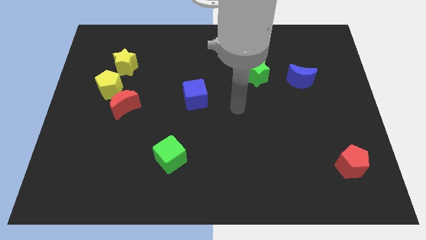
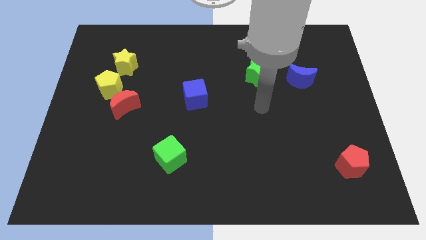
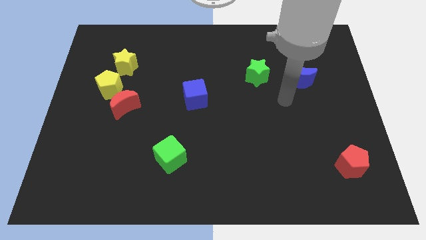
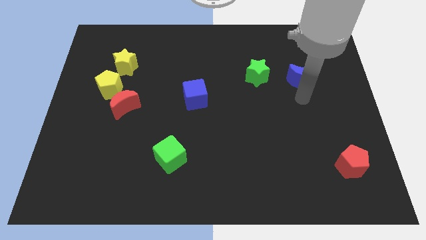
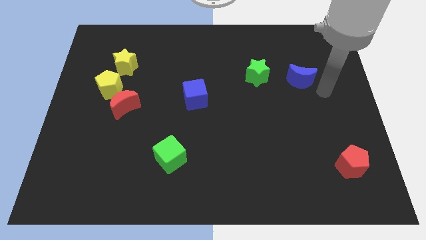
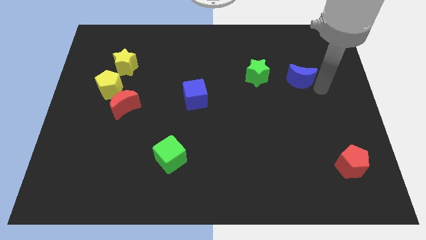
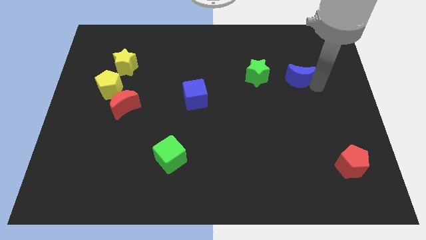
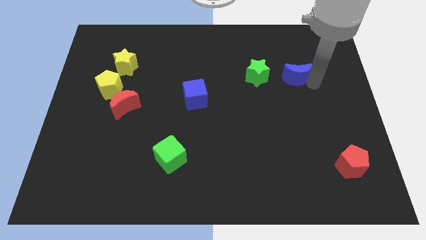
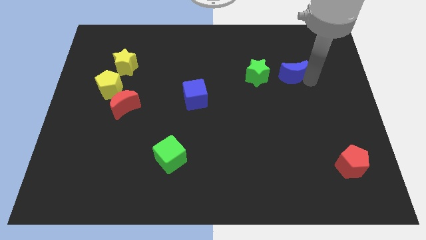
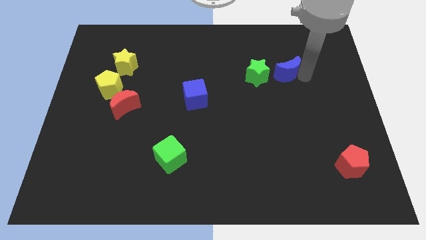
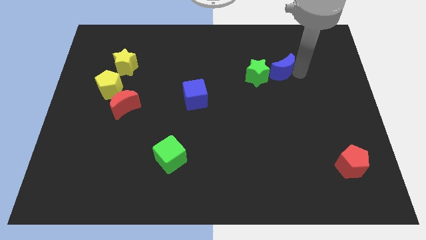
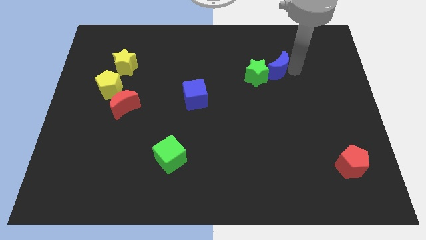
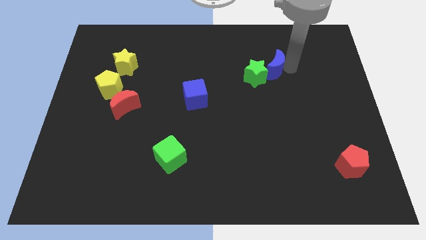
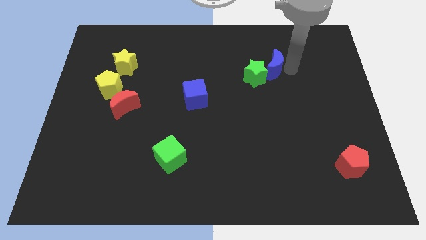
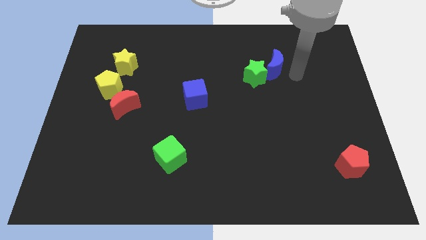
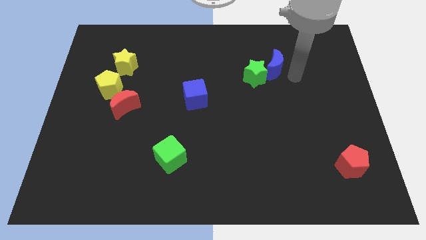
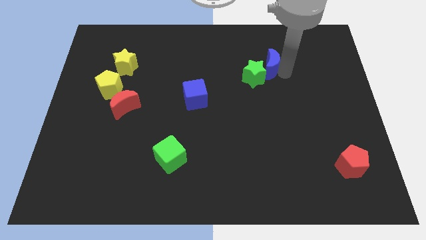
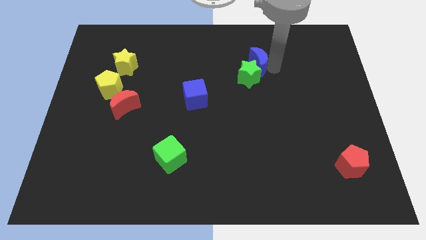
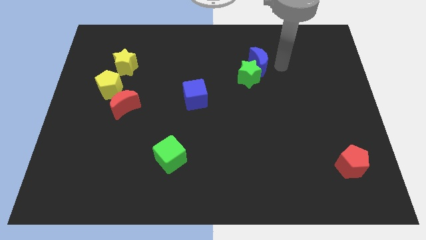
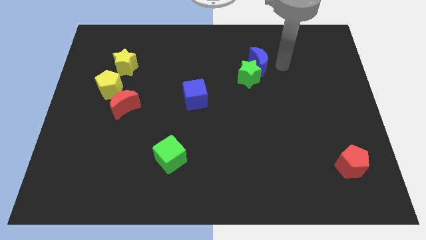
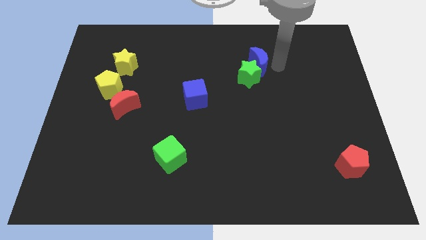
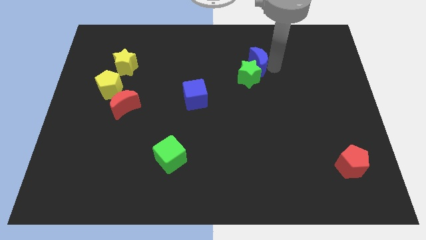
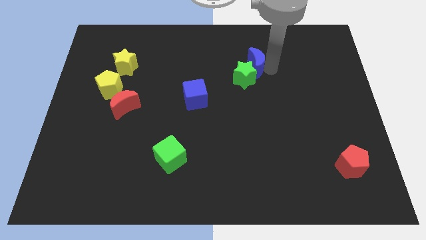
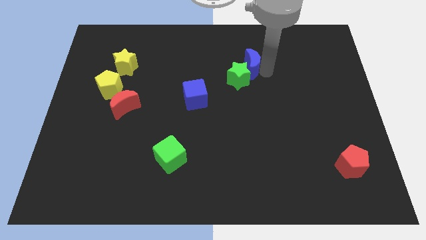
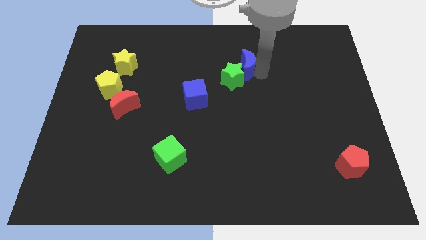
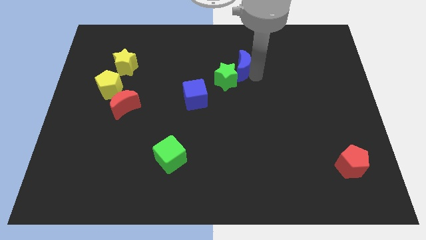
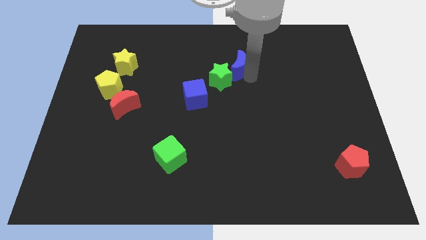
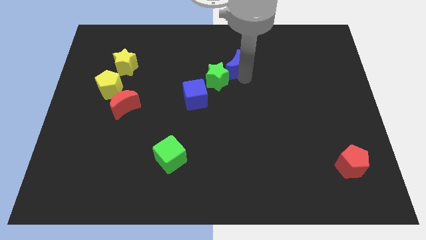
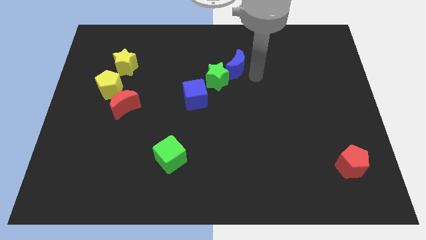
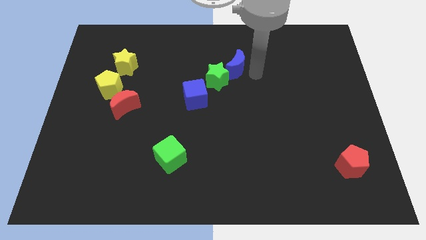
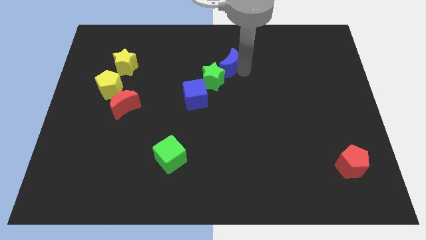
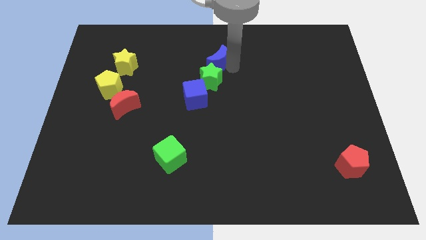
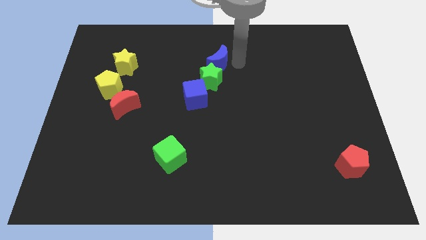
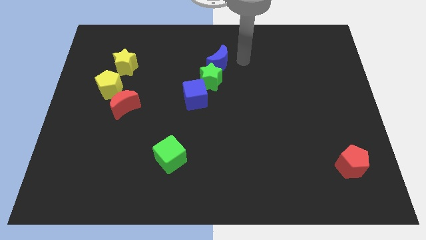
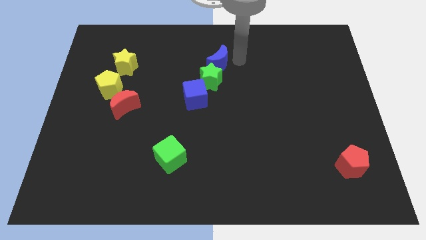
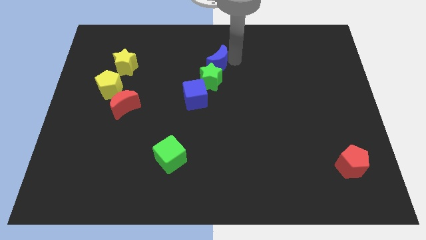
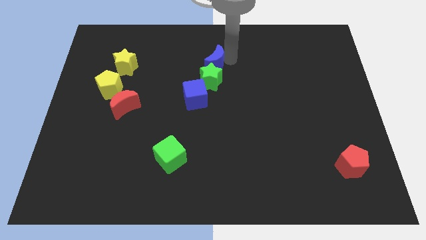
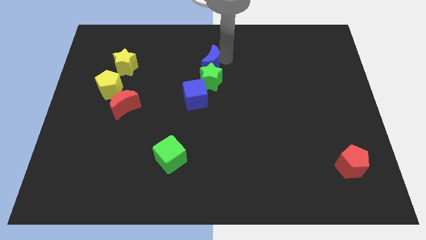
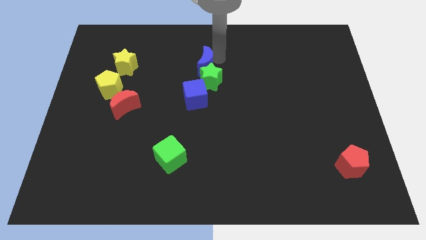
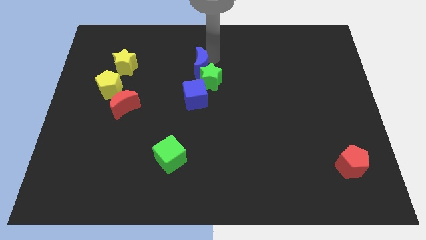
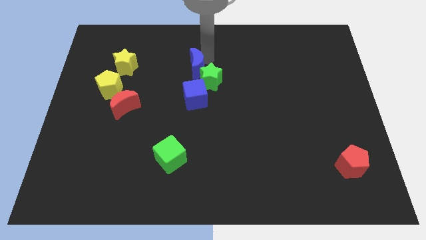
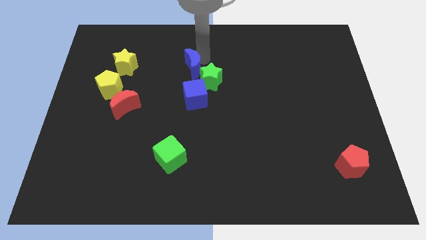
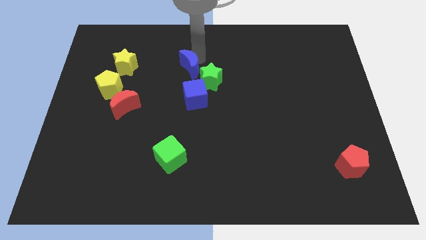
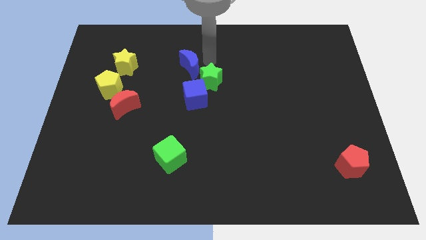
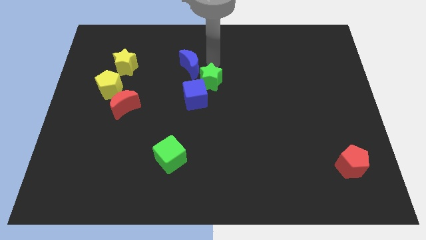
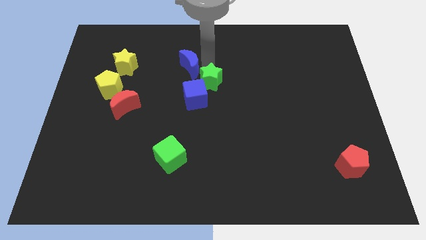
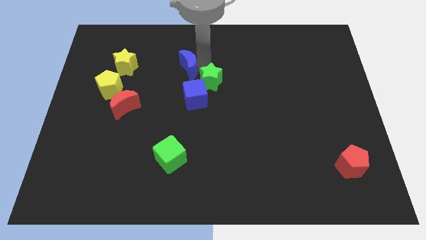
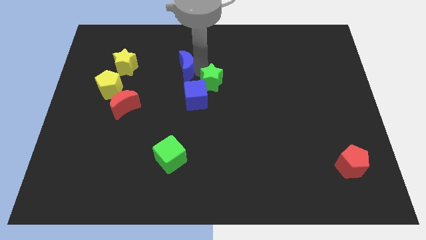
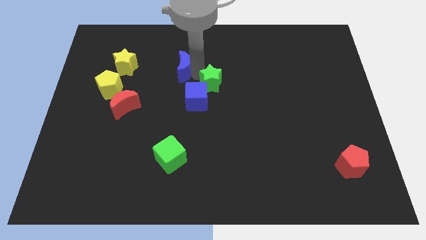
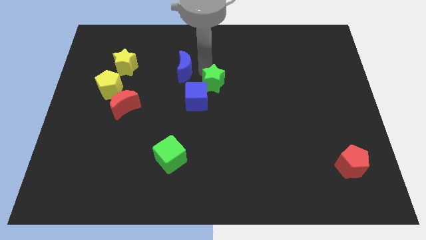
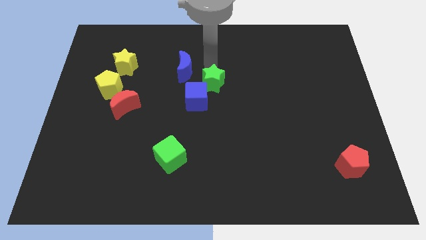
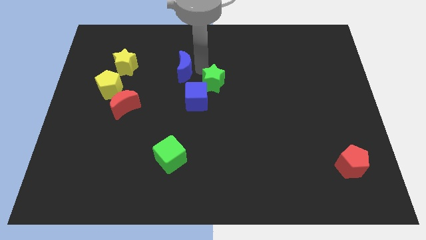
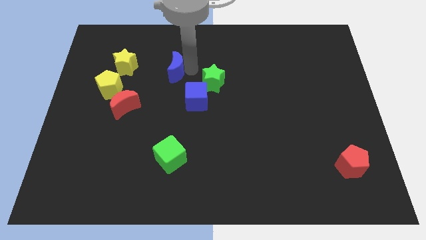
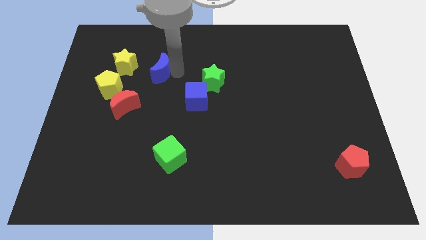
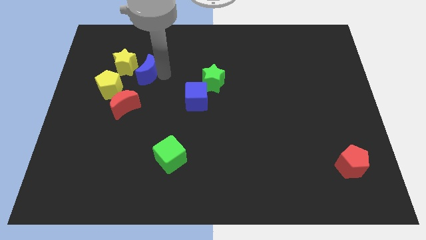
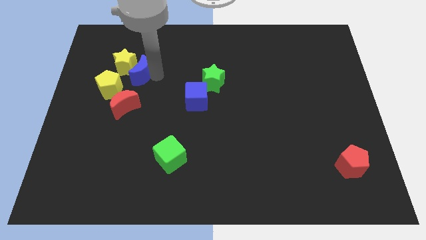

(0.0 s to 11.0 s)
move the blue moon next to the yellow star

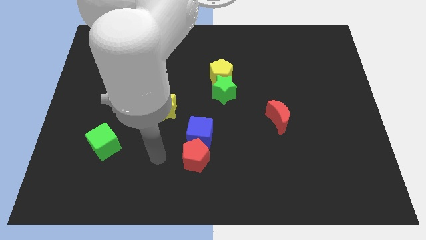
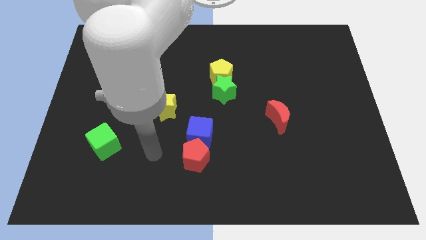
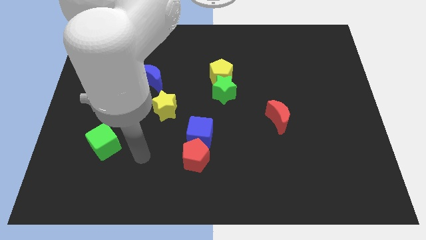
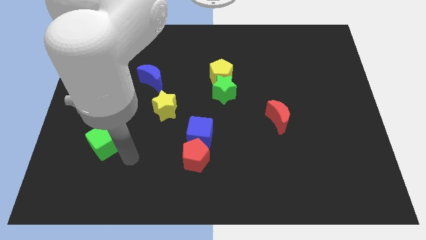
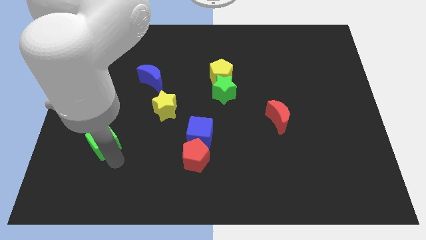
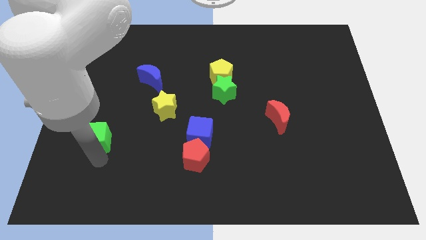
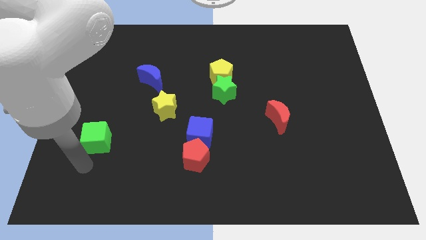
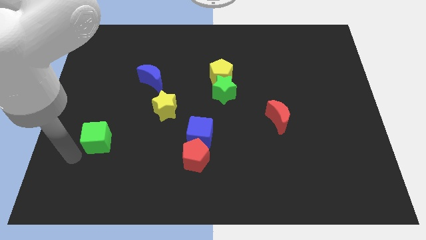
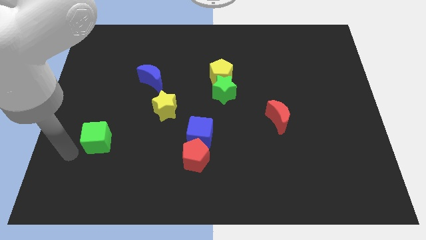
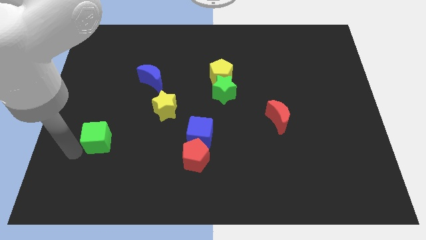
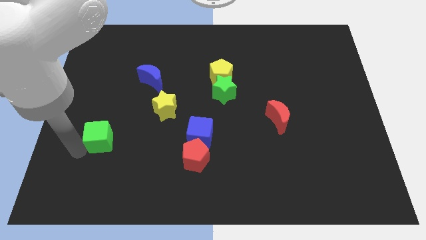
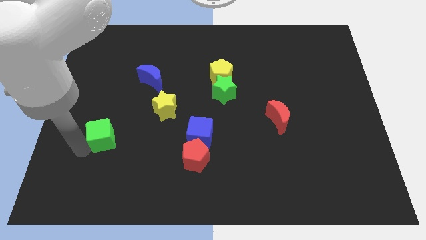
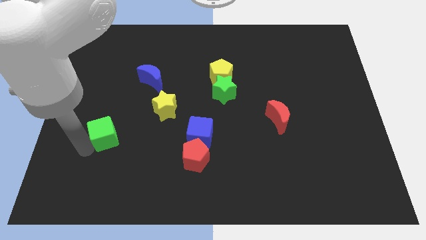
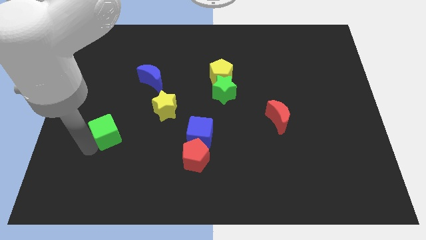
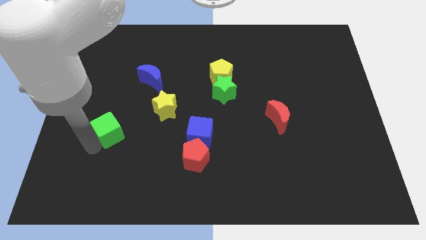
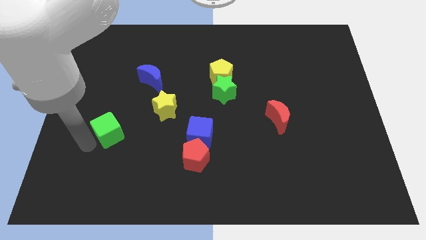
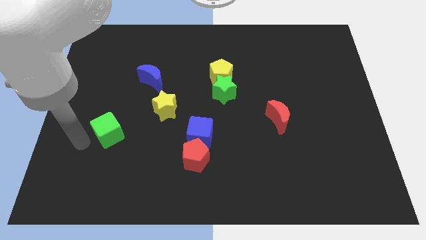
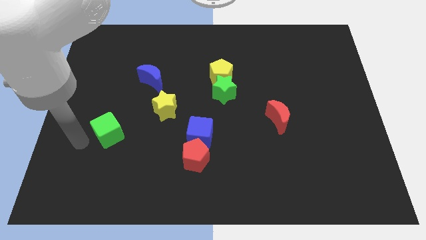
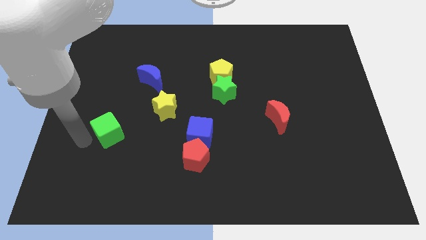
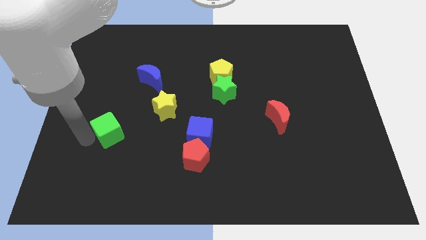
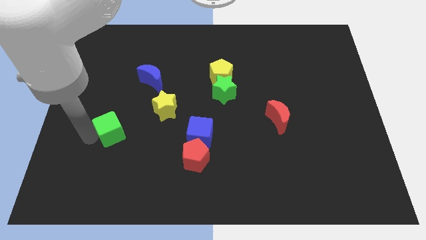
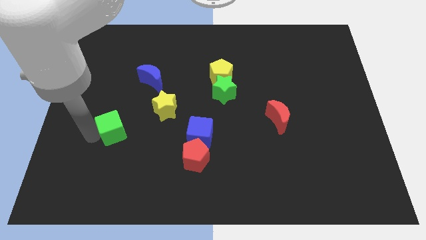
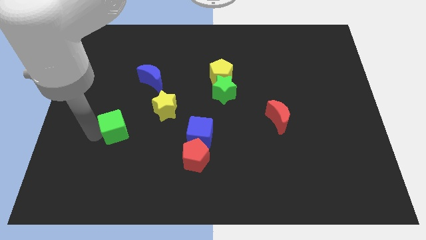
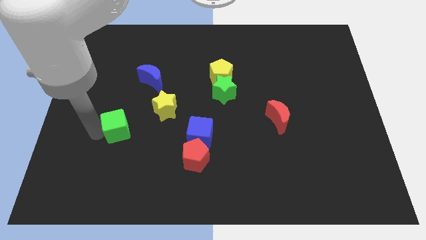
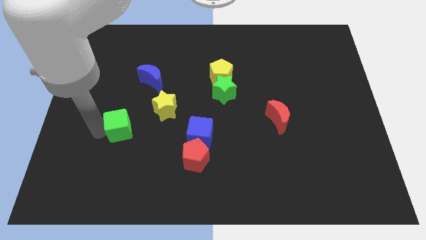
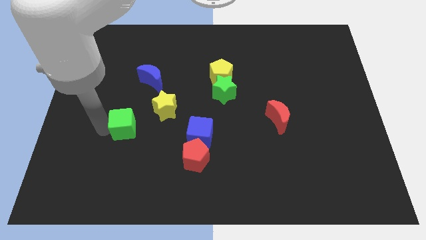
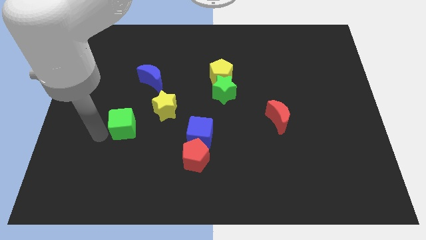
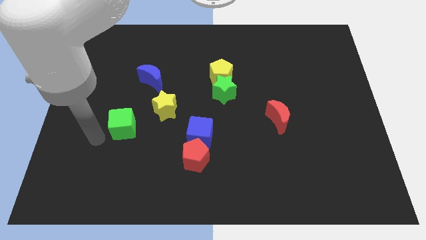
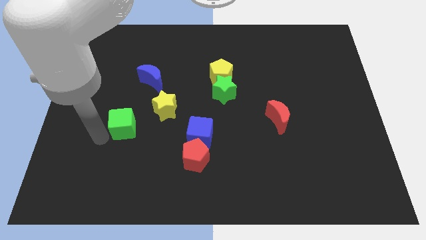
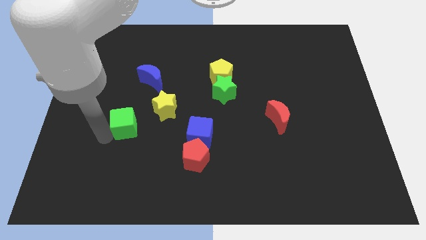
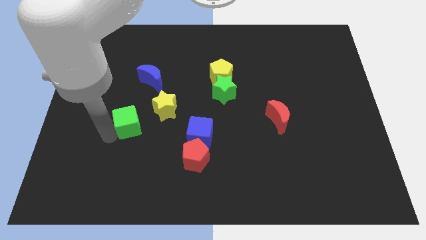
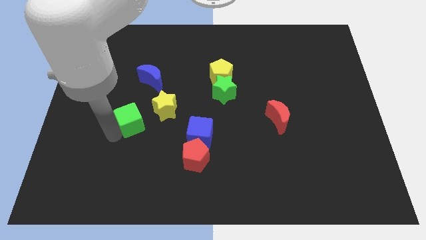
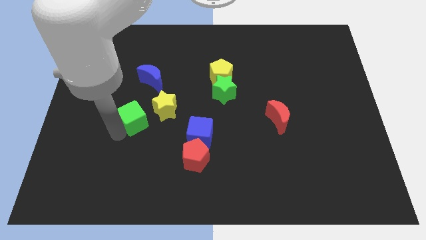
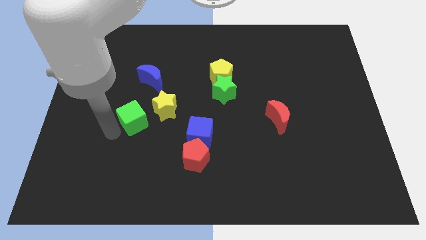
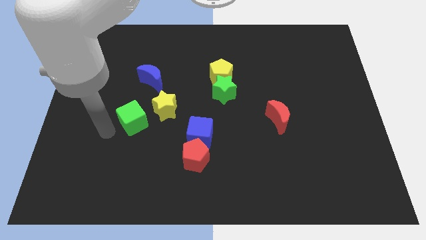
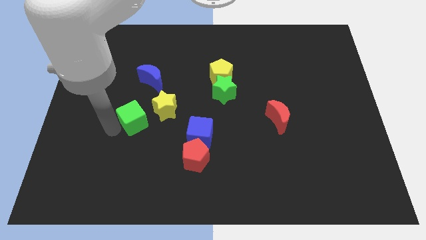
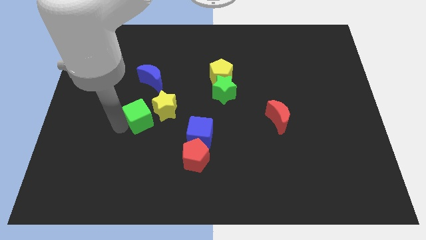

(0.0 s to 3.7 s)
put the green cube towards the yellow star
